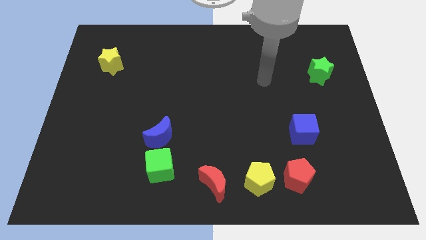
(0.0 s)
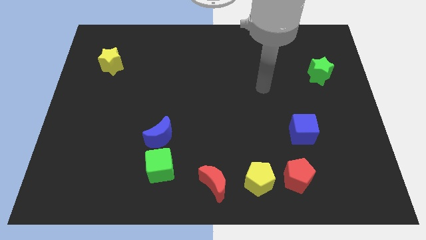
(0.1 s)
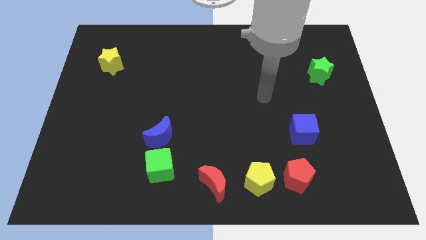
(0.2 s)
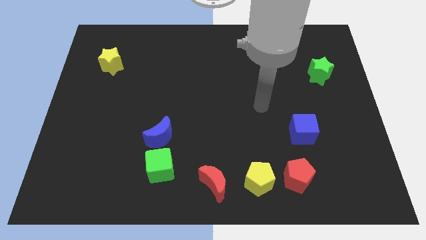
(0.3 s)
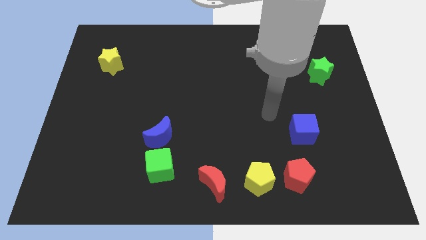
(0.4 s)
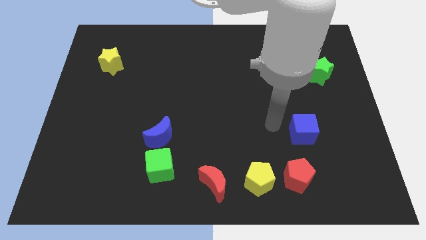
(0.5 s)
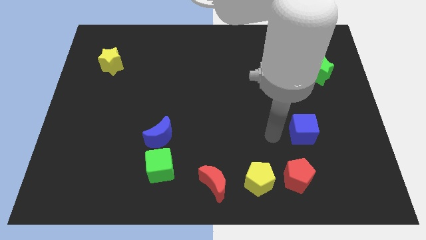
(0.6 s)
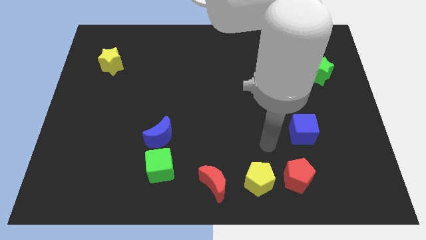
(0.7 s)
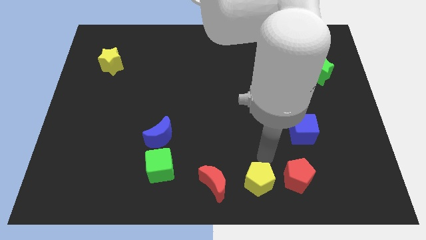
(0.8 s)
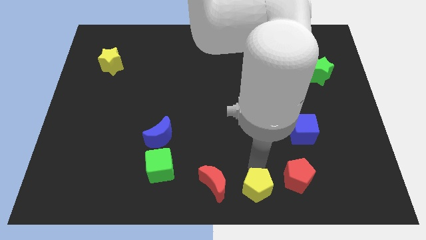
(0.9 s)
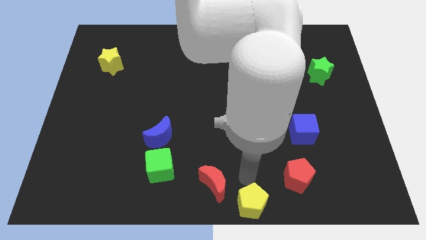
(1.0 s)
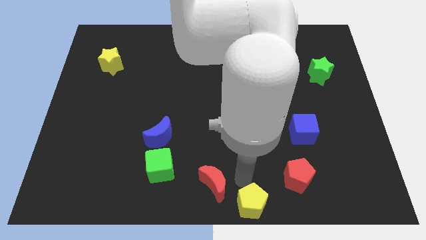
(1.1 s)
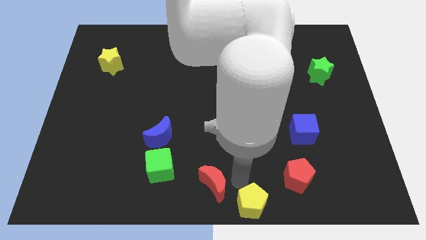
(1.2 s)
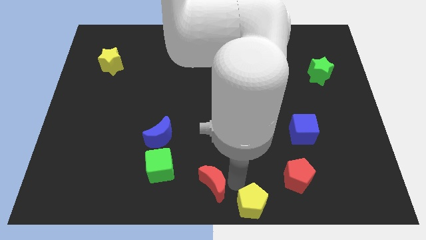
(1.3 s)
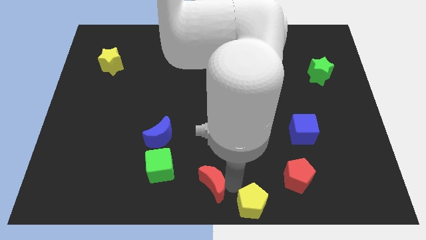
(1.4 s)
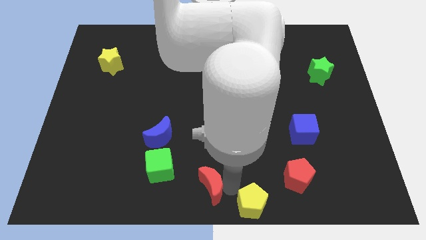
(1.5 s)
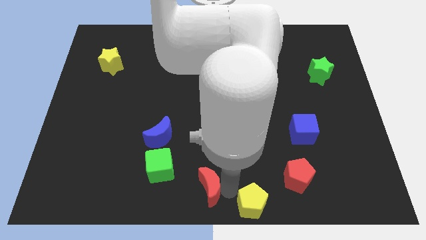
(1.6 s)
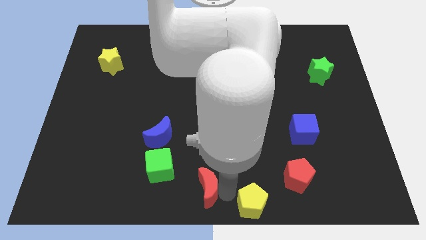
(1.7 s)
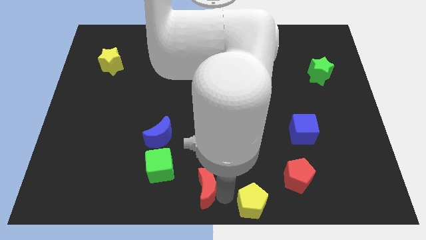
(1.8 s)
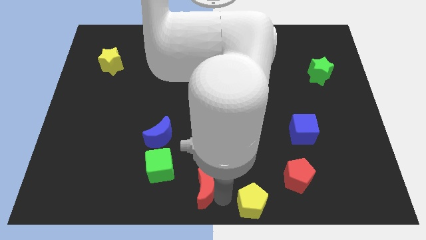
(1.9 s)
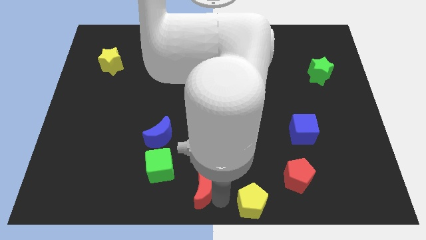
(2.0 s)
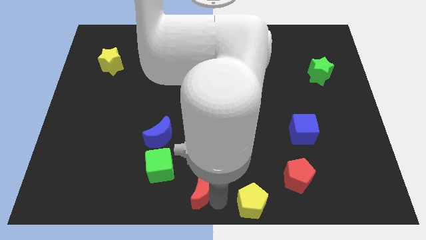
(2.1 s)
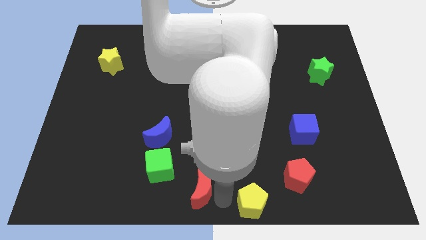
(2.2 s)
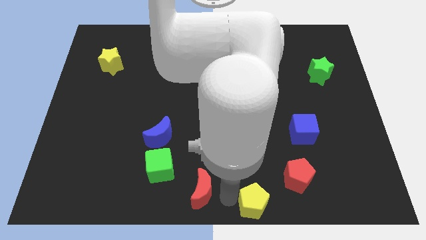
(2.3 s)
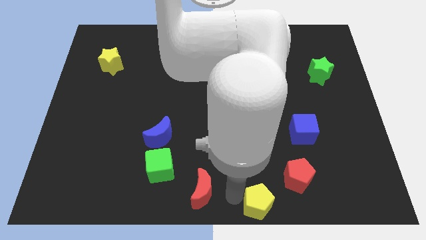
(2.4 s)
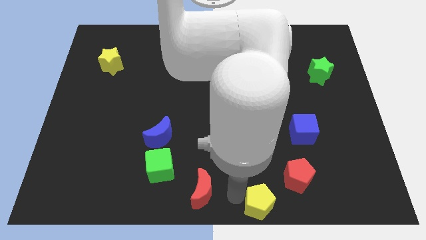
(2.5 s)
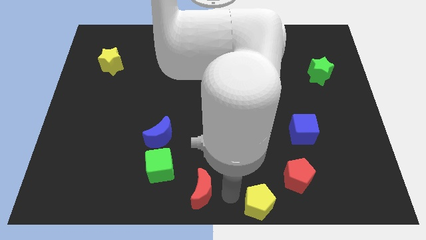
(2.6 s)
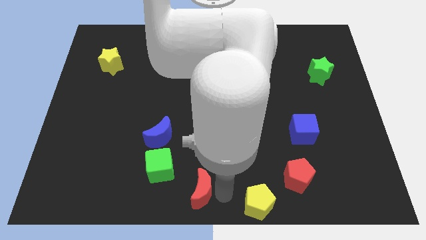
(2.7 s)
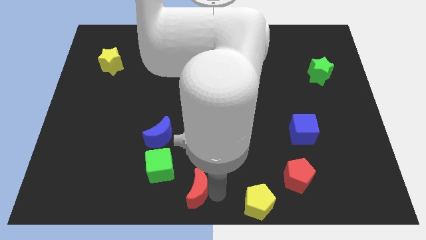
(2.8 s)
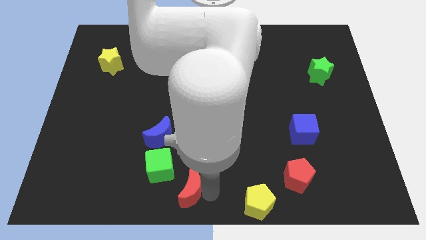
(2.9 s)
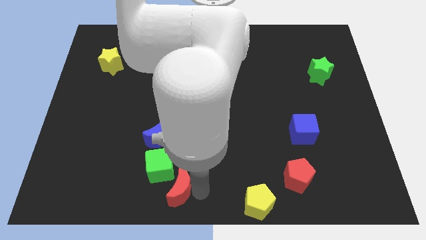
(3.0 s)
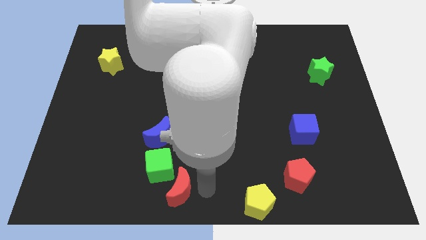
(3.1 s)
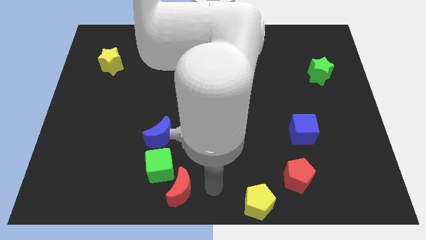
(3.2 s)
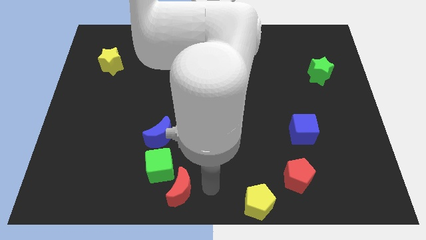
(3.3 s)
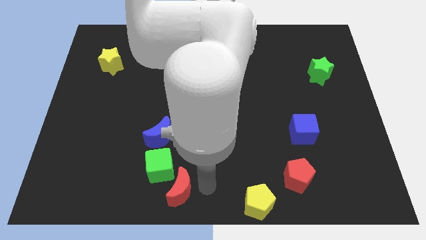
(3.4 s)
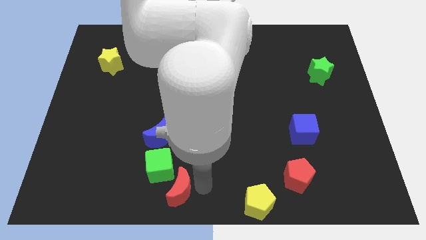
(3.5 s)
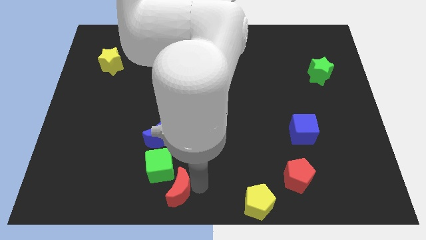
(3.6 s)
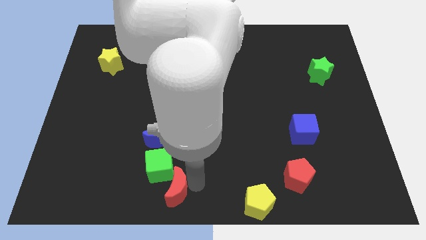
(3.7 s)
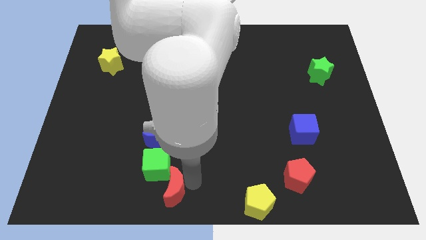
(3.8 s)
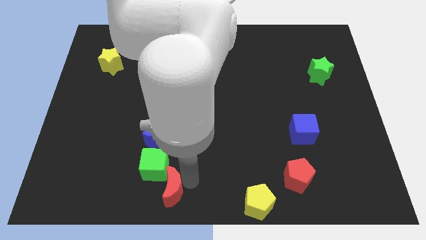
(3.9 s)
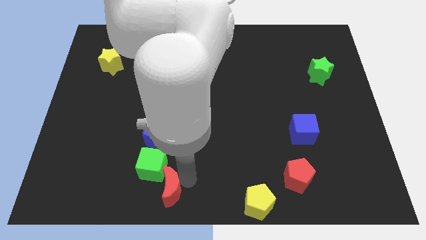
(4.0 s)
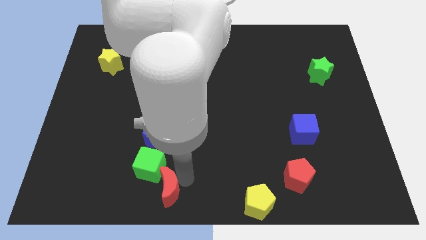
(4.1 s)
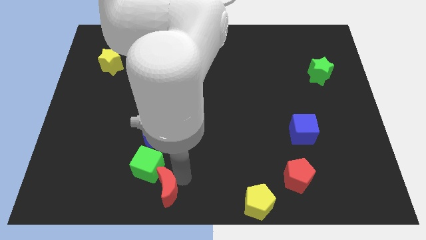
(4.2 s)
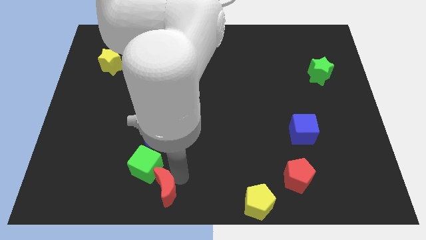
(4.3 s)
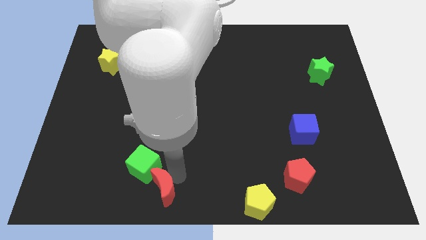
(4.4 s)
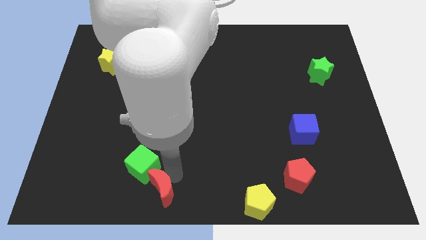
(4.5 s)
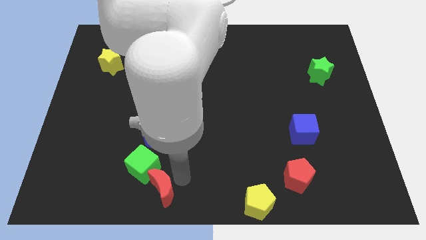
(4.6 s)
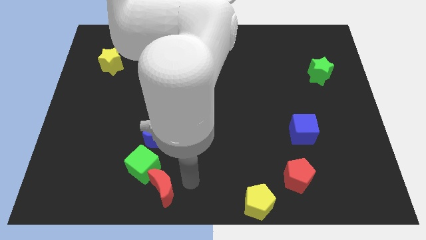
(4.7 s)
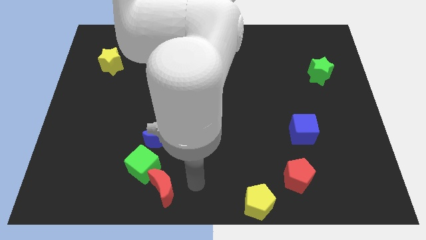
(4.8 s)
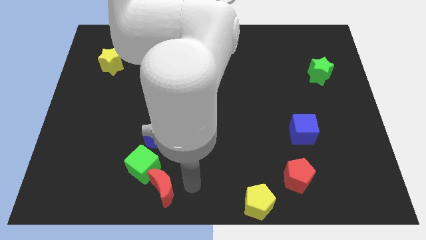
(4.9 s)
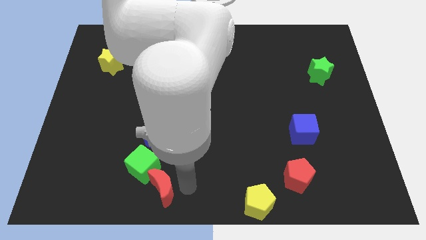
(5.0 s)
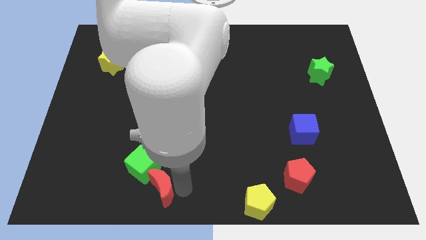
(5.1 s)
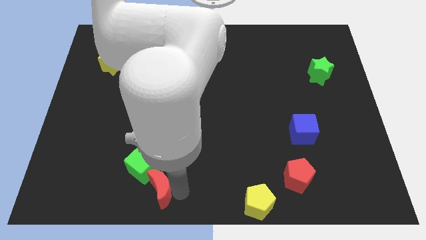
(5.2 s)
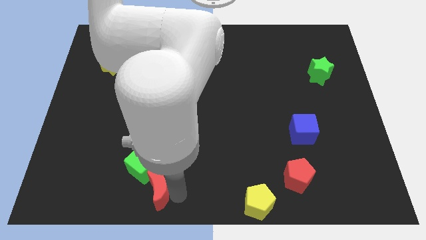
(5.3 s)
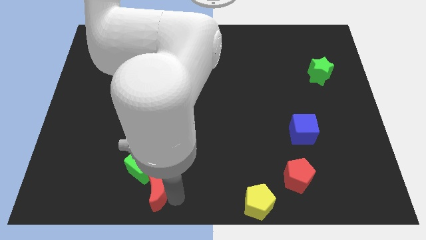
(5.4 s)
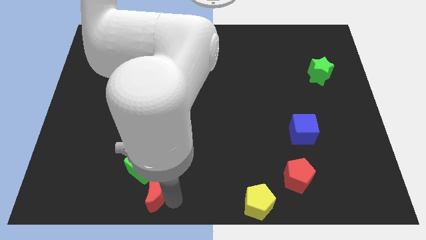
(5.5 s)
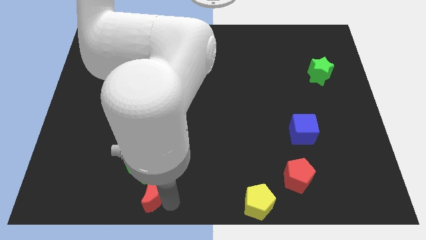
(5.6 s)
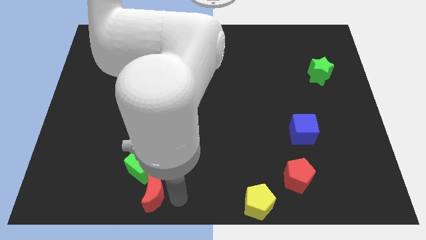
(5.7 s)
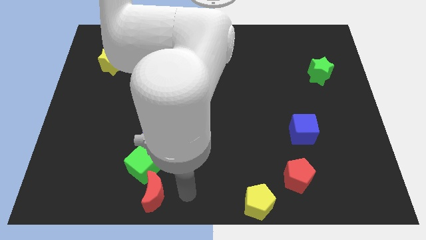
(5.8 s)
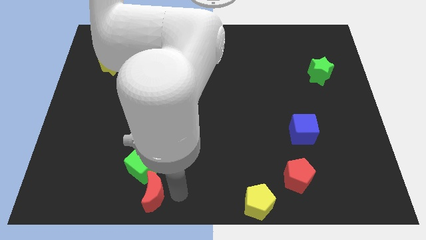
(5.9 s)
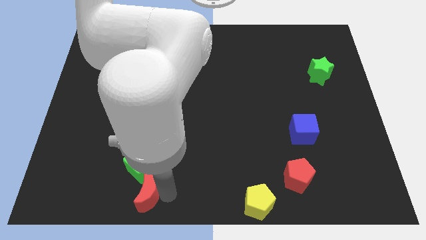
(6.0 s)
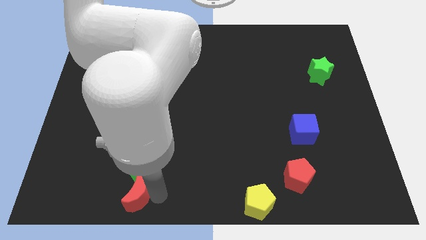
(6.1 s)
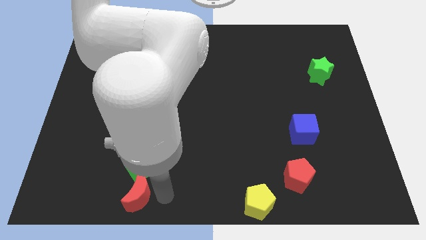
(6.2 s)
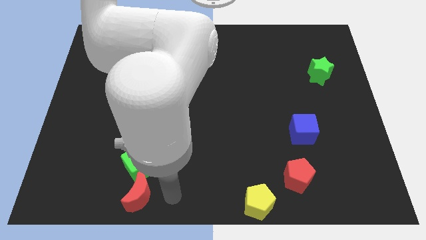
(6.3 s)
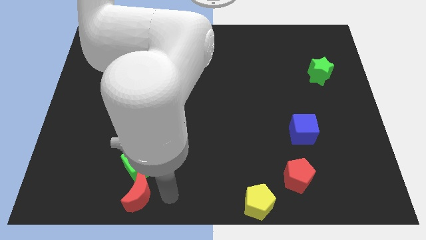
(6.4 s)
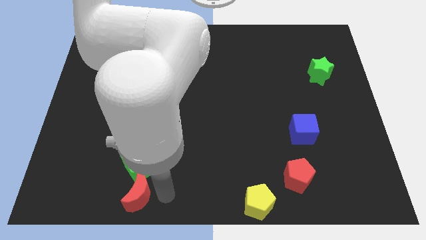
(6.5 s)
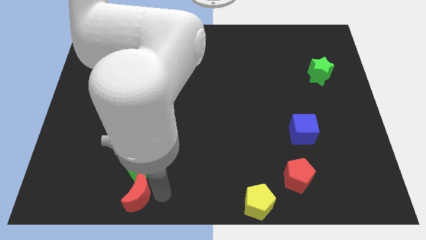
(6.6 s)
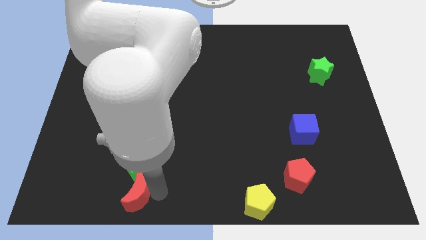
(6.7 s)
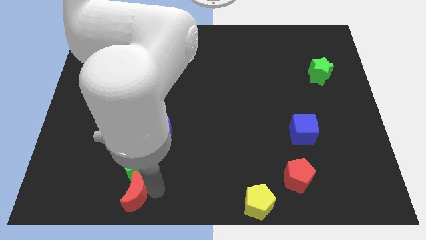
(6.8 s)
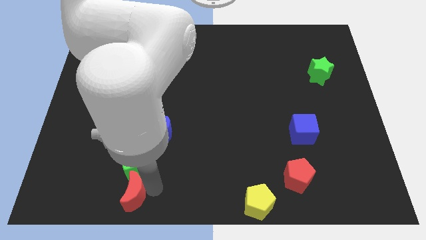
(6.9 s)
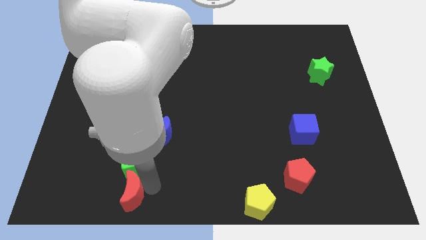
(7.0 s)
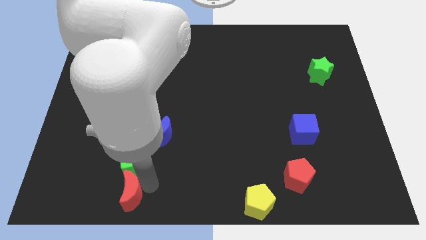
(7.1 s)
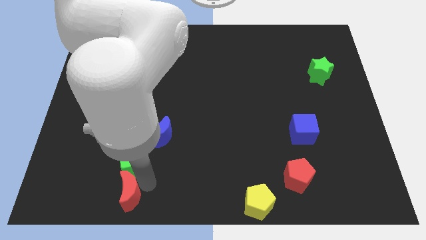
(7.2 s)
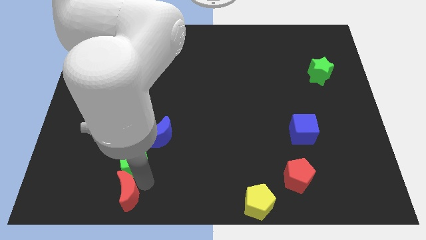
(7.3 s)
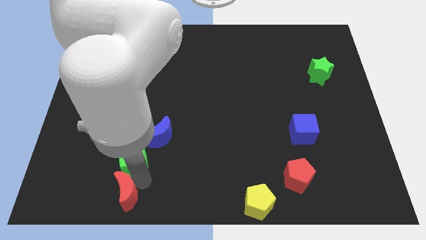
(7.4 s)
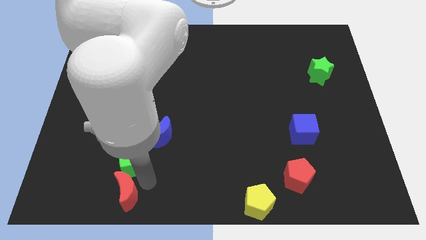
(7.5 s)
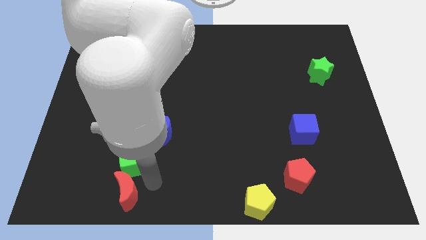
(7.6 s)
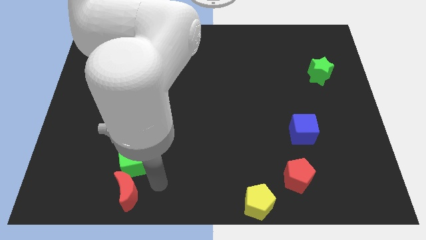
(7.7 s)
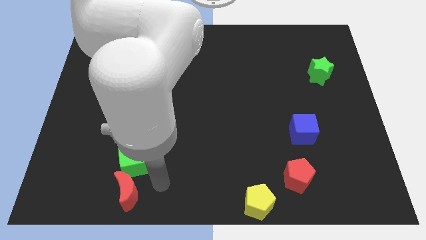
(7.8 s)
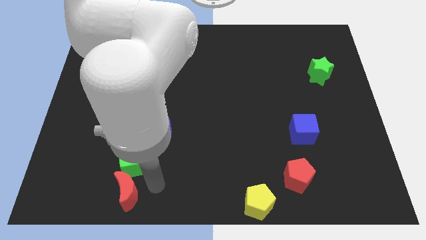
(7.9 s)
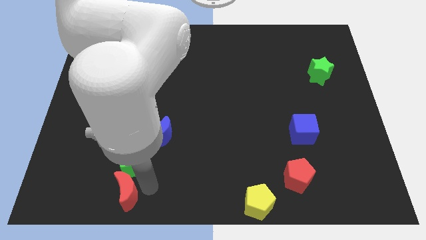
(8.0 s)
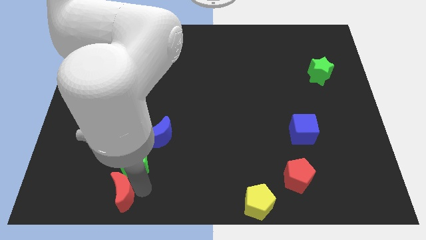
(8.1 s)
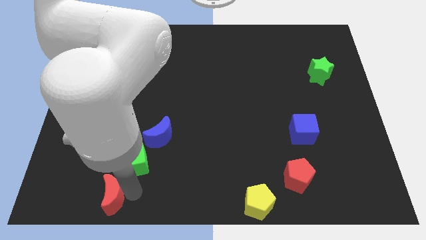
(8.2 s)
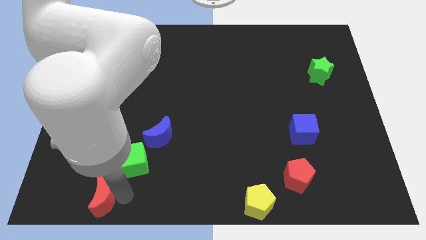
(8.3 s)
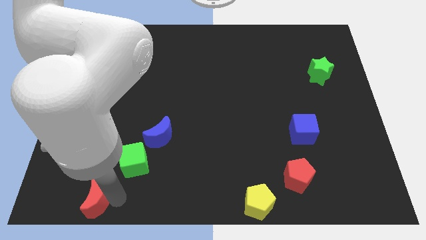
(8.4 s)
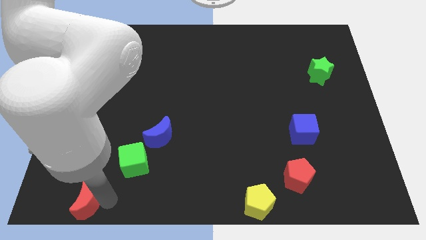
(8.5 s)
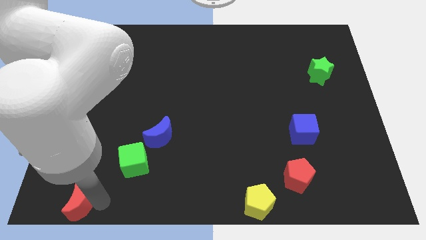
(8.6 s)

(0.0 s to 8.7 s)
push the red moon to the lower left corner
